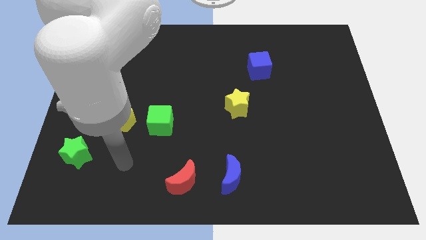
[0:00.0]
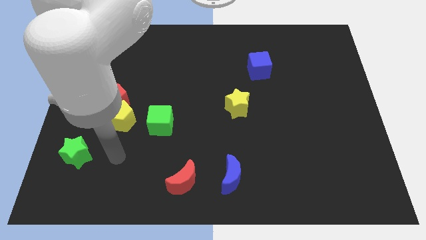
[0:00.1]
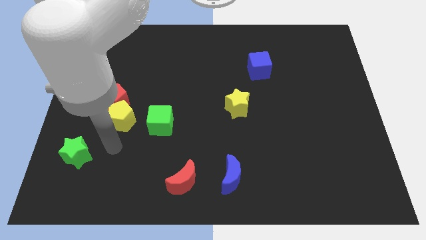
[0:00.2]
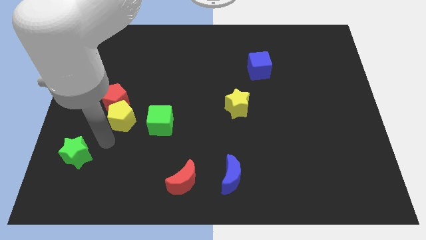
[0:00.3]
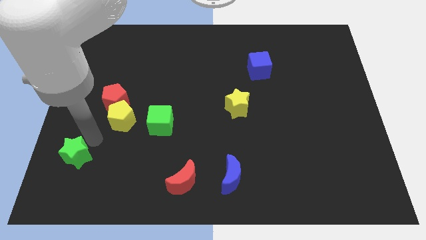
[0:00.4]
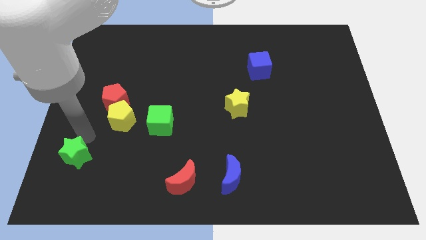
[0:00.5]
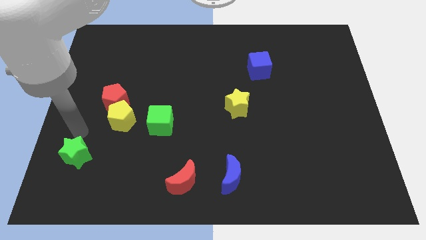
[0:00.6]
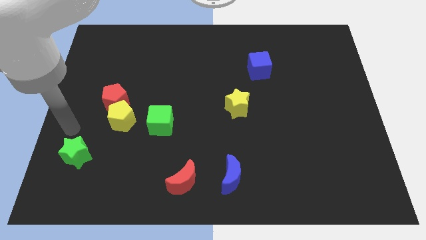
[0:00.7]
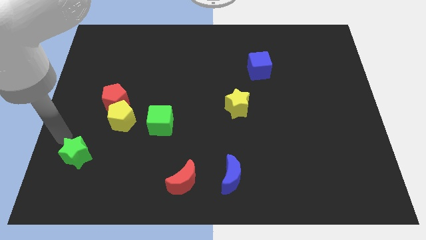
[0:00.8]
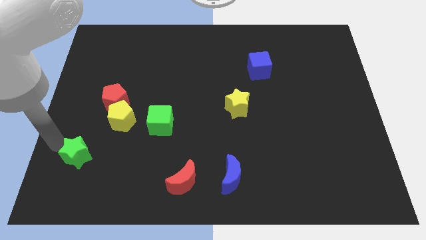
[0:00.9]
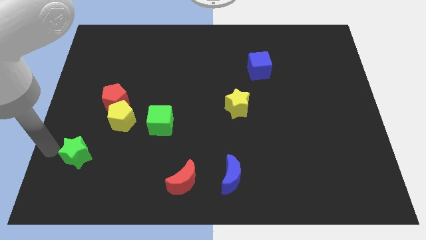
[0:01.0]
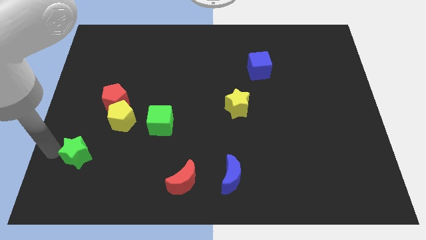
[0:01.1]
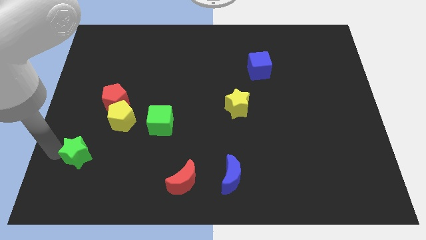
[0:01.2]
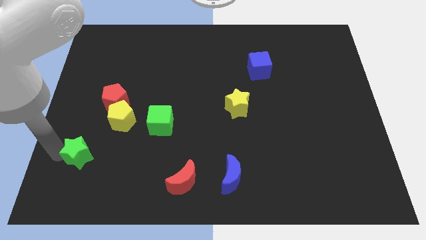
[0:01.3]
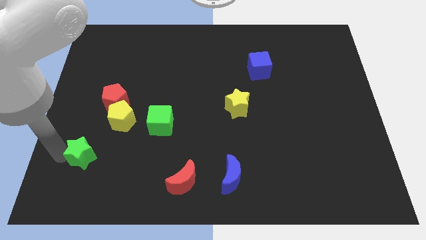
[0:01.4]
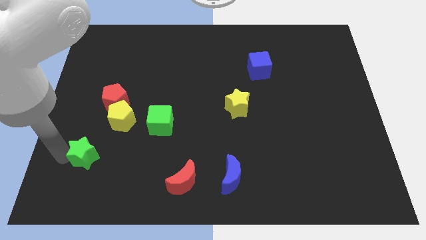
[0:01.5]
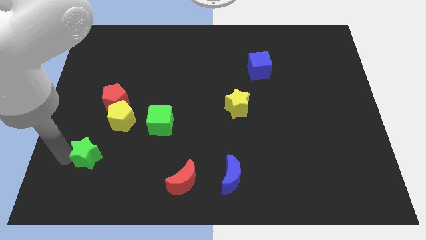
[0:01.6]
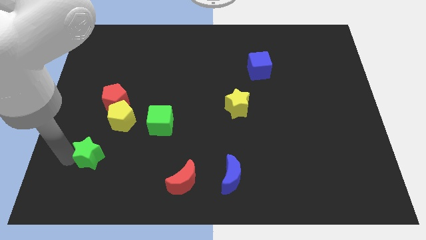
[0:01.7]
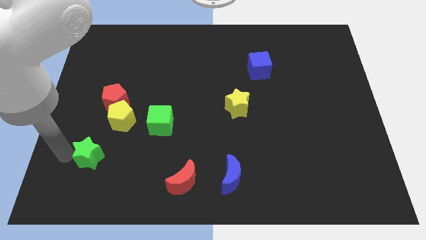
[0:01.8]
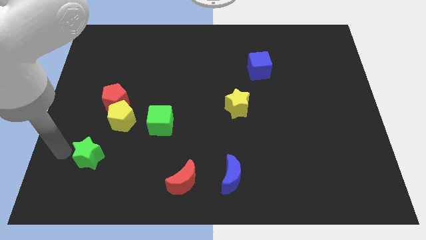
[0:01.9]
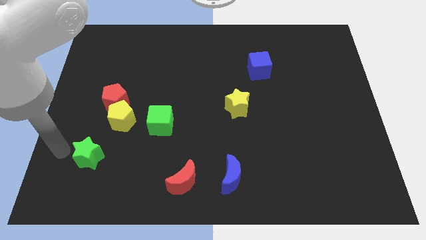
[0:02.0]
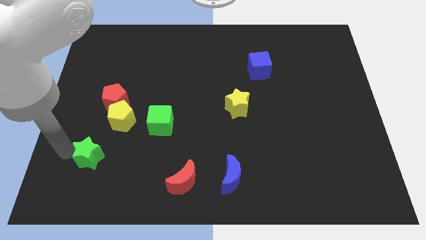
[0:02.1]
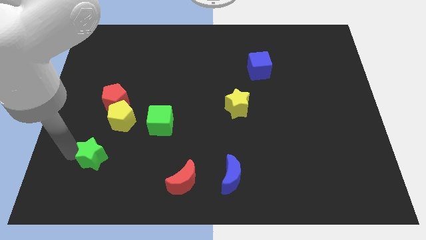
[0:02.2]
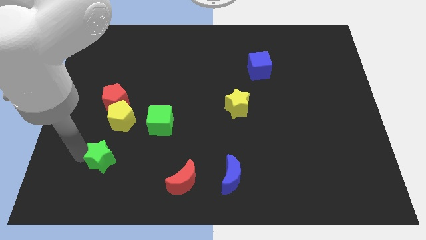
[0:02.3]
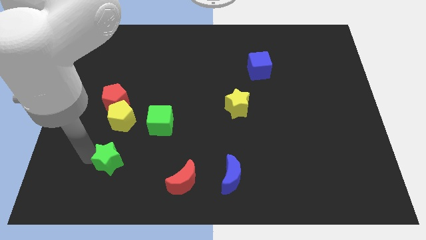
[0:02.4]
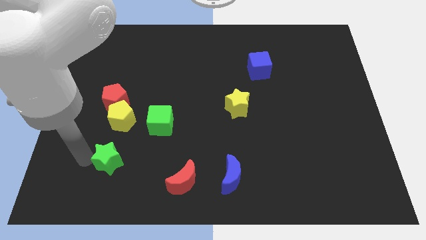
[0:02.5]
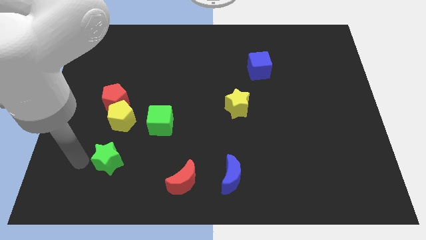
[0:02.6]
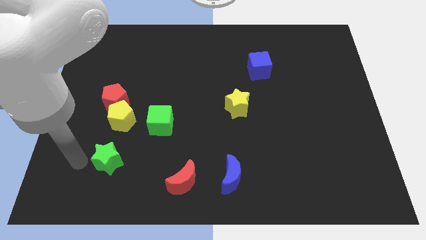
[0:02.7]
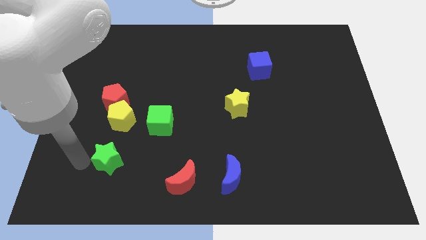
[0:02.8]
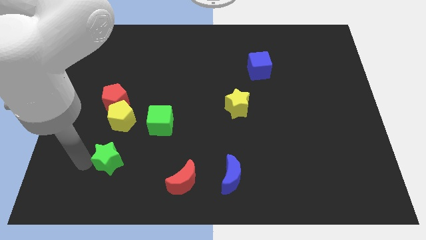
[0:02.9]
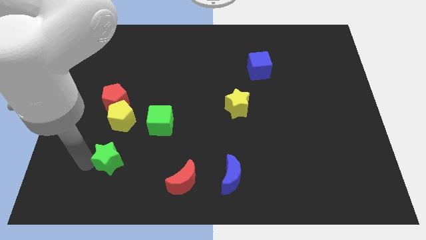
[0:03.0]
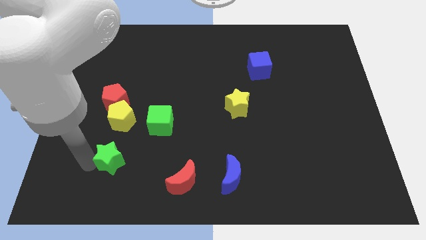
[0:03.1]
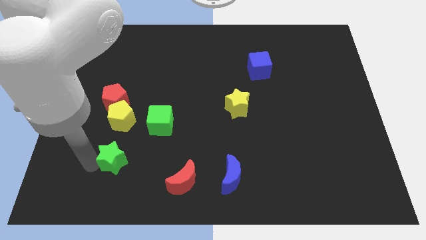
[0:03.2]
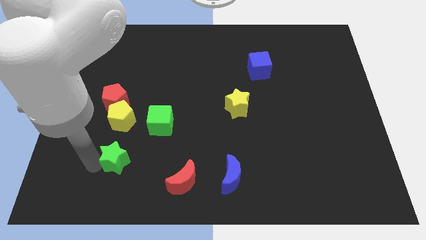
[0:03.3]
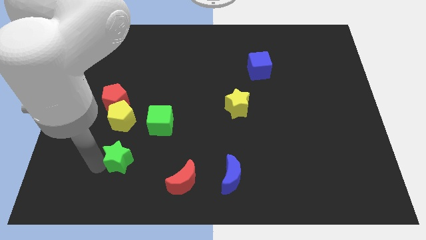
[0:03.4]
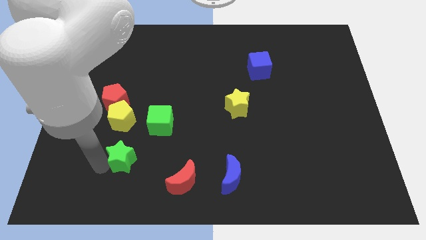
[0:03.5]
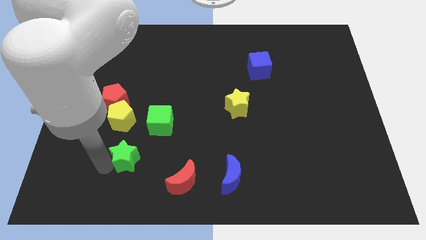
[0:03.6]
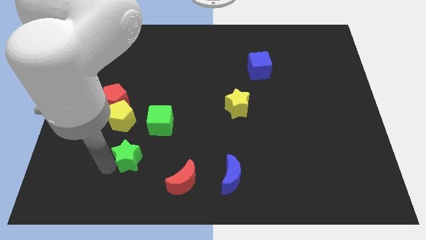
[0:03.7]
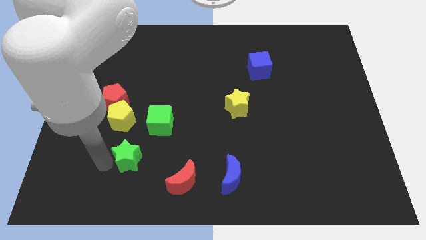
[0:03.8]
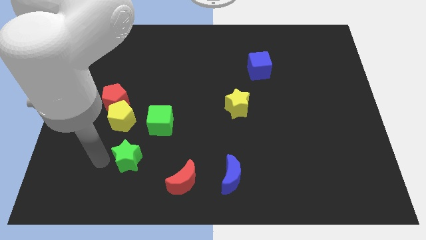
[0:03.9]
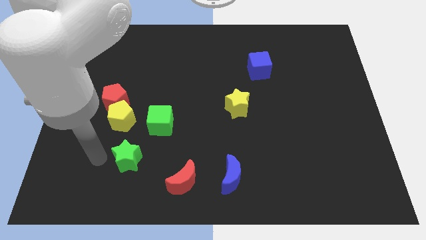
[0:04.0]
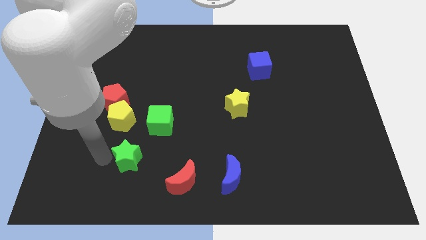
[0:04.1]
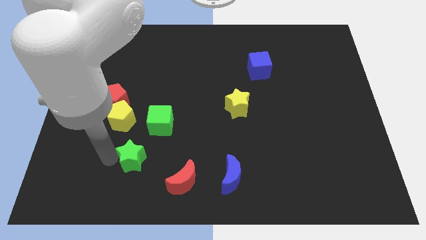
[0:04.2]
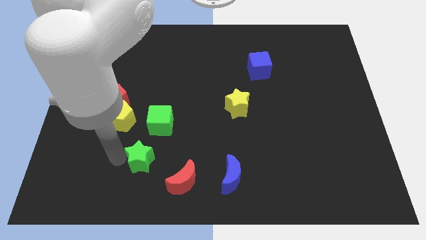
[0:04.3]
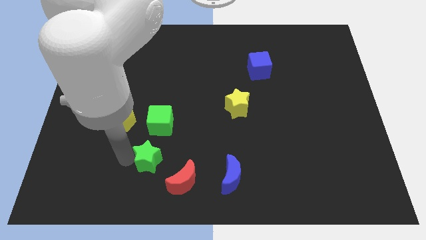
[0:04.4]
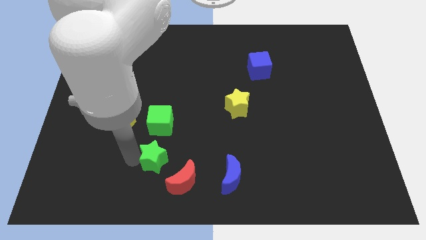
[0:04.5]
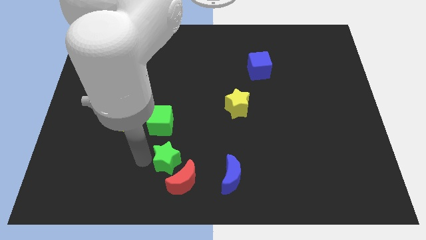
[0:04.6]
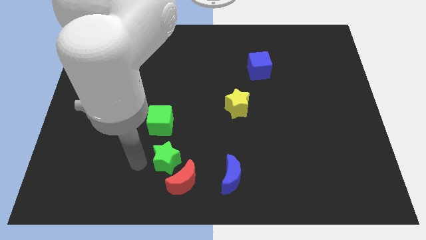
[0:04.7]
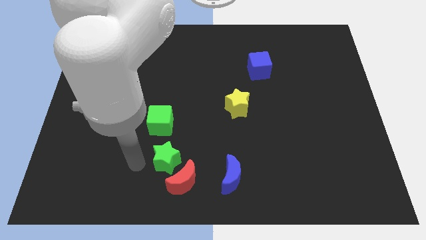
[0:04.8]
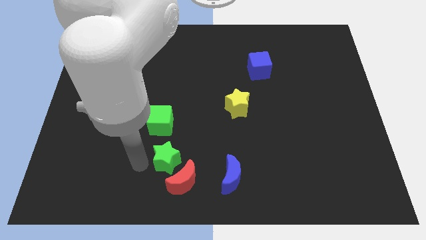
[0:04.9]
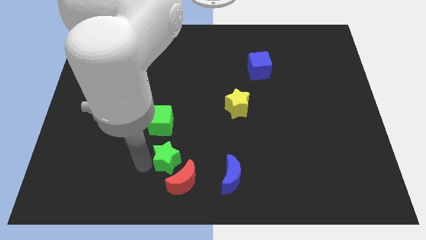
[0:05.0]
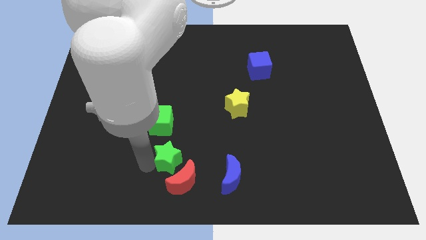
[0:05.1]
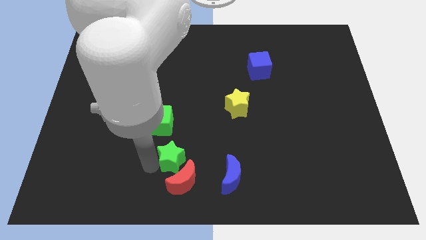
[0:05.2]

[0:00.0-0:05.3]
move the green star right

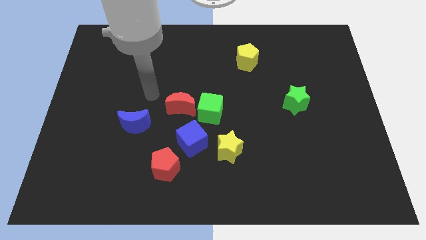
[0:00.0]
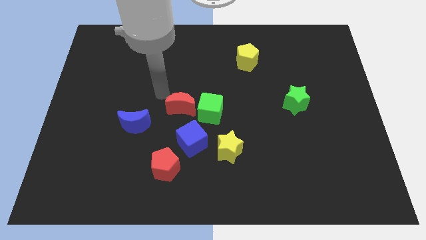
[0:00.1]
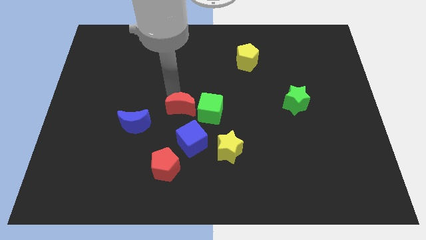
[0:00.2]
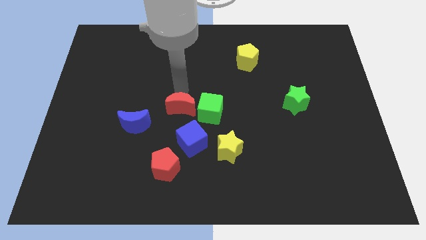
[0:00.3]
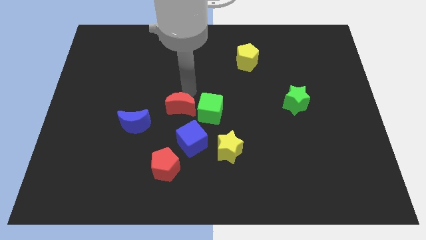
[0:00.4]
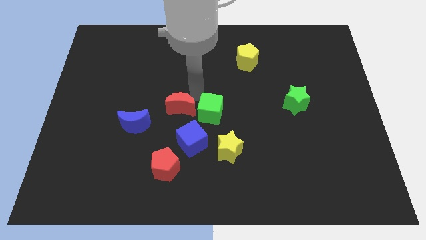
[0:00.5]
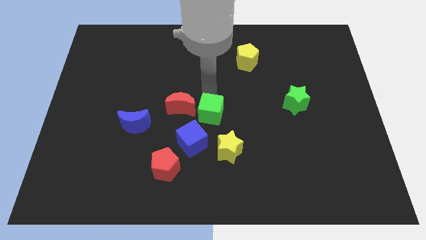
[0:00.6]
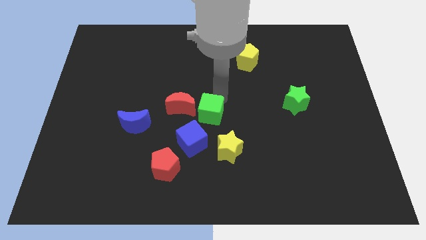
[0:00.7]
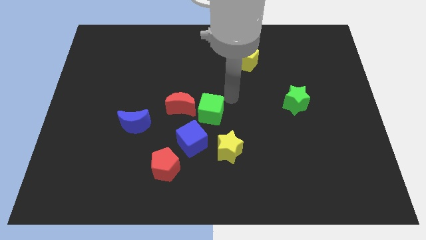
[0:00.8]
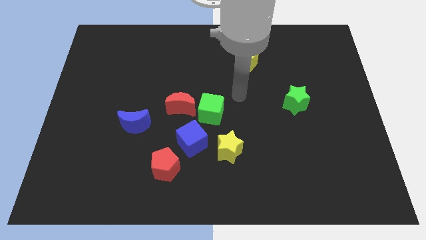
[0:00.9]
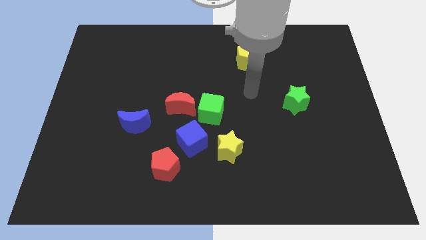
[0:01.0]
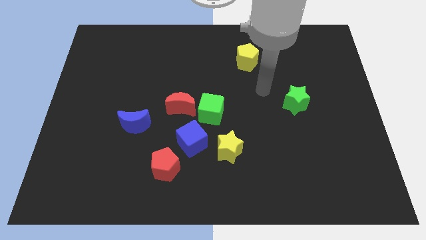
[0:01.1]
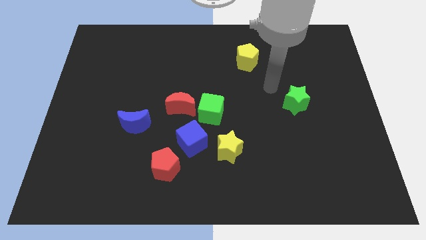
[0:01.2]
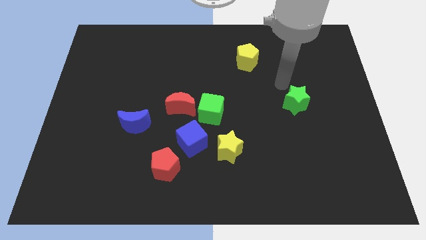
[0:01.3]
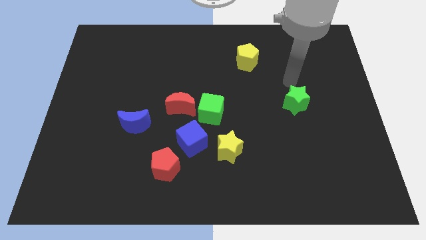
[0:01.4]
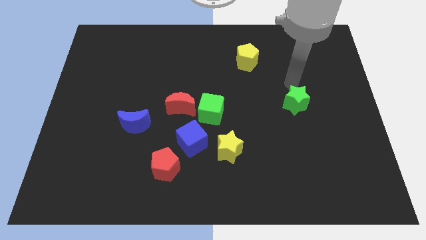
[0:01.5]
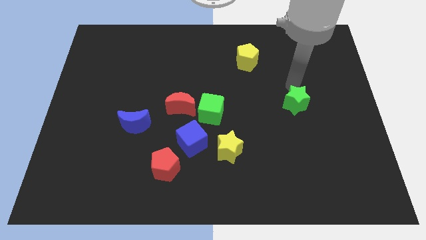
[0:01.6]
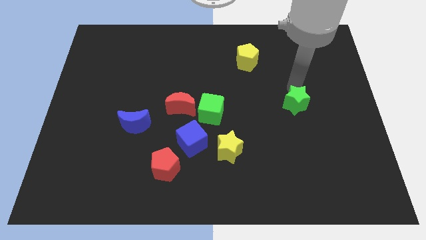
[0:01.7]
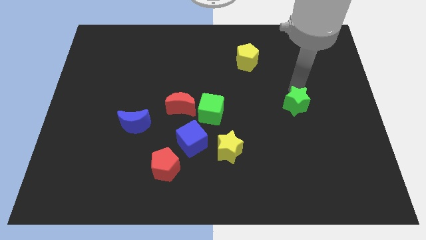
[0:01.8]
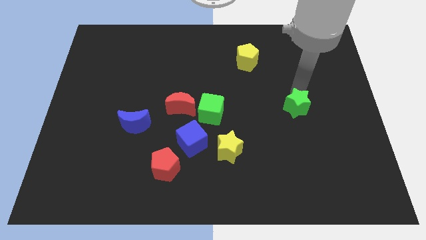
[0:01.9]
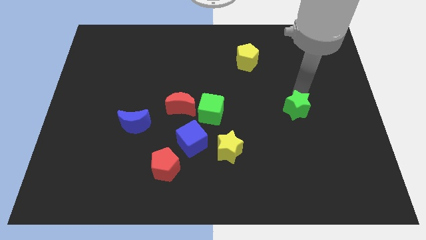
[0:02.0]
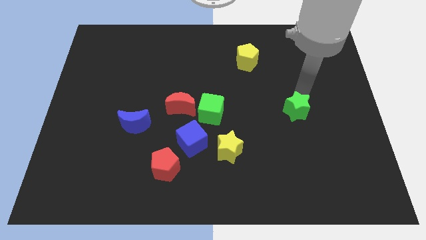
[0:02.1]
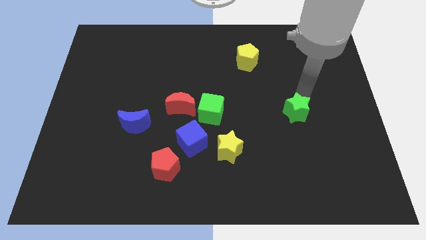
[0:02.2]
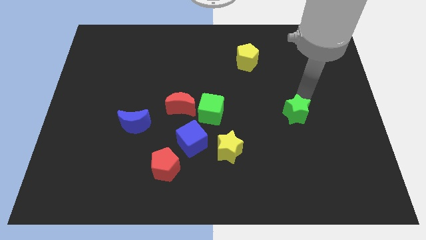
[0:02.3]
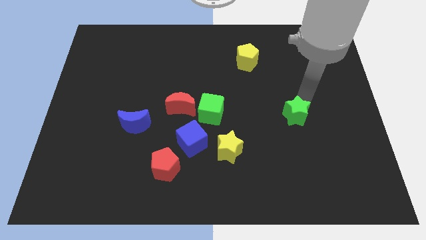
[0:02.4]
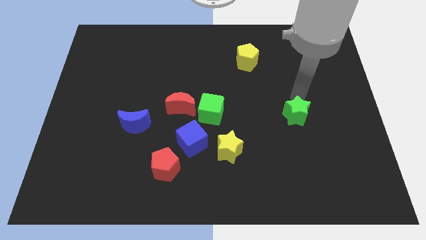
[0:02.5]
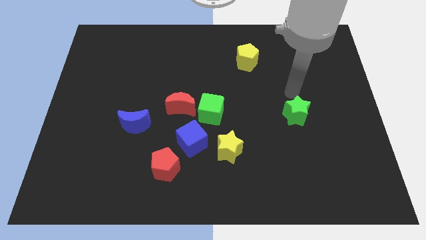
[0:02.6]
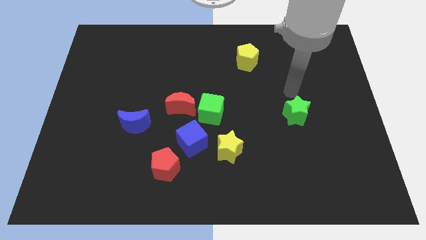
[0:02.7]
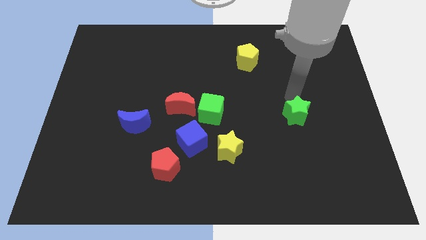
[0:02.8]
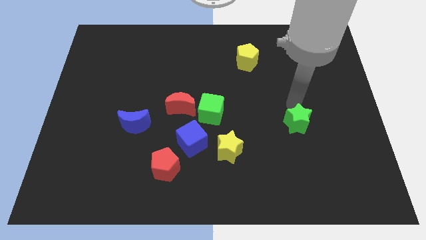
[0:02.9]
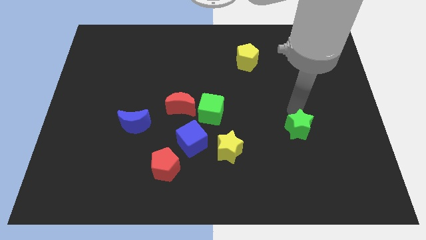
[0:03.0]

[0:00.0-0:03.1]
slightly push the green star down
